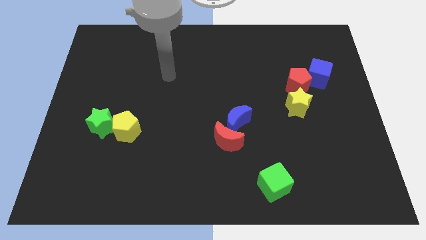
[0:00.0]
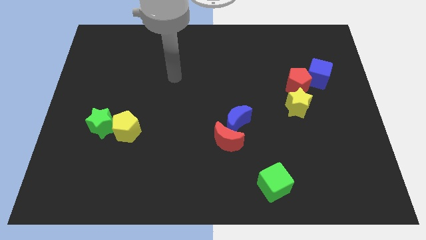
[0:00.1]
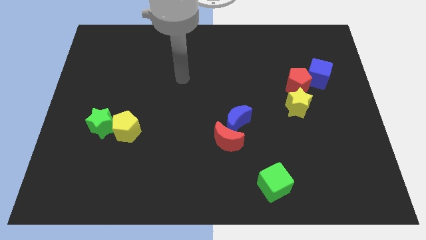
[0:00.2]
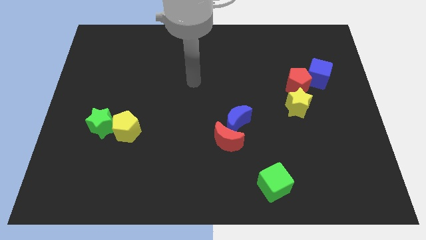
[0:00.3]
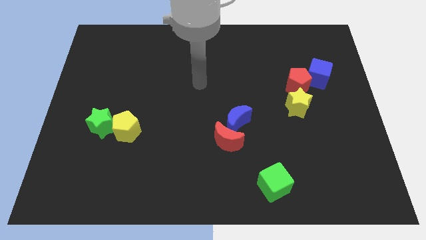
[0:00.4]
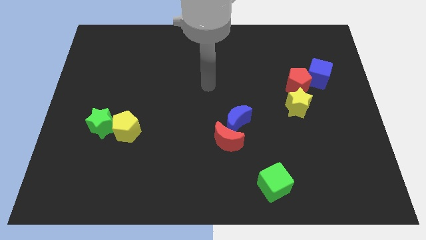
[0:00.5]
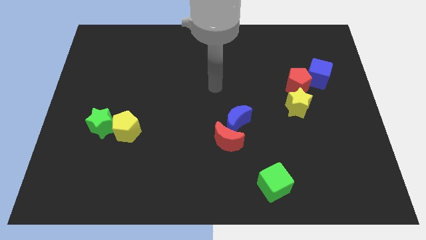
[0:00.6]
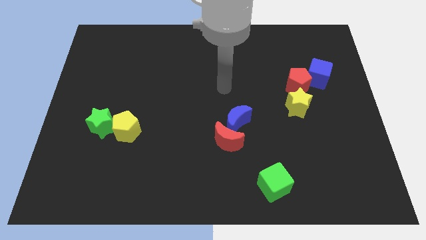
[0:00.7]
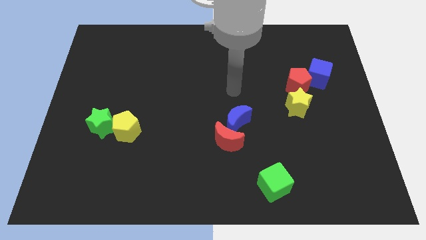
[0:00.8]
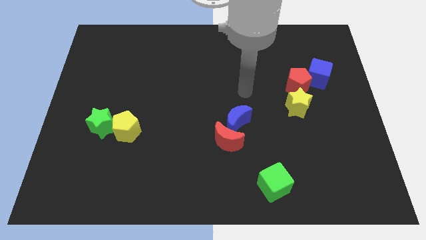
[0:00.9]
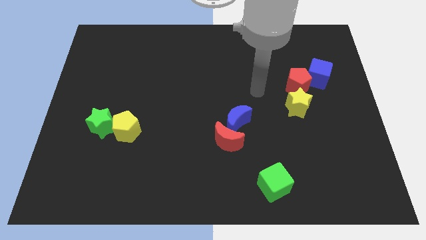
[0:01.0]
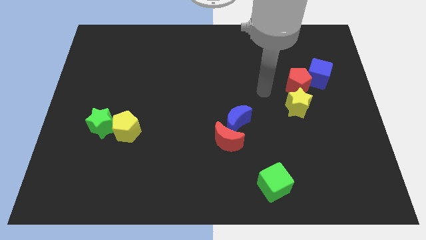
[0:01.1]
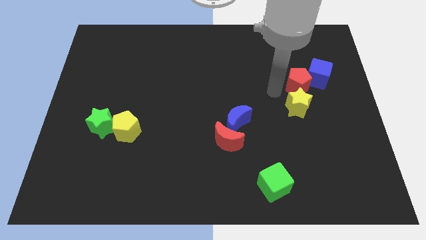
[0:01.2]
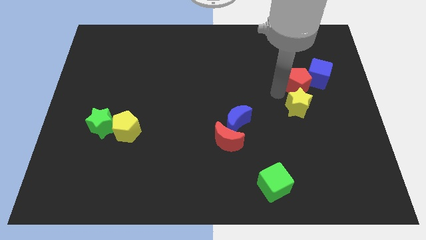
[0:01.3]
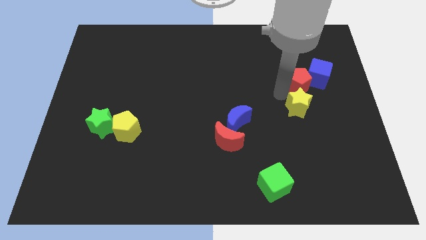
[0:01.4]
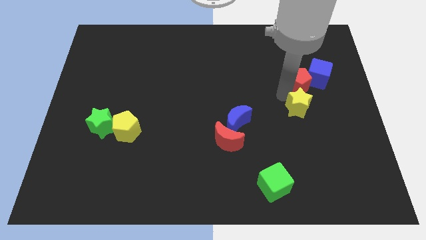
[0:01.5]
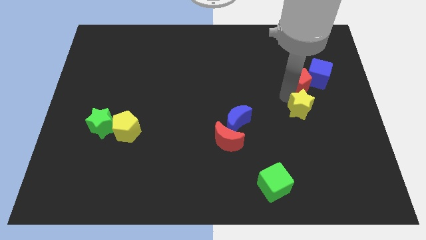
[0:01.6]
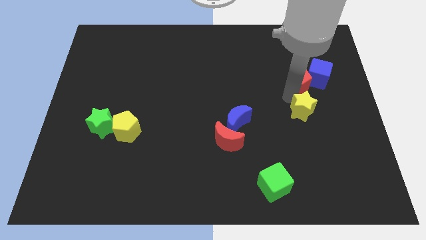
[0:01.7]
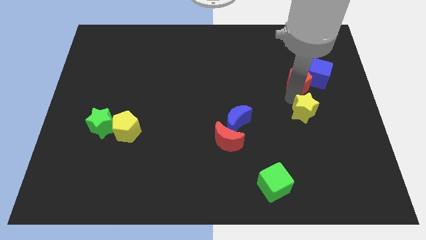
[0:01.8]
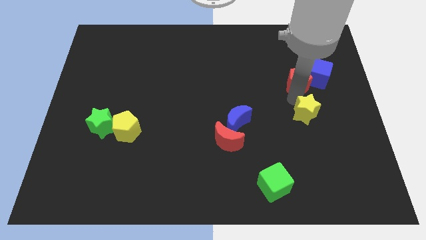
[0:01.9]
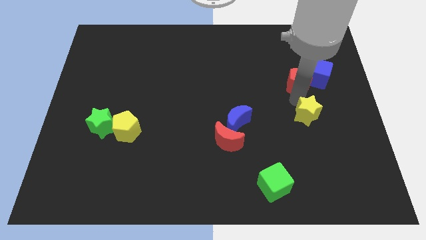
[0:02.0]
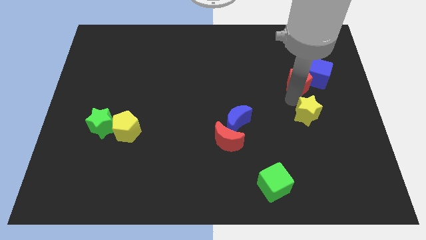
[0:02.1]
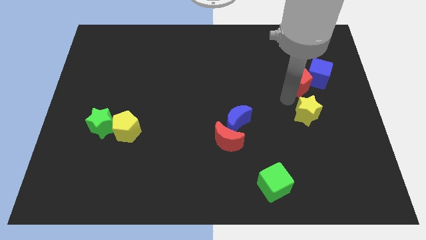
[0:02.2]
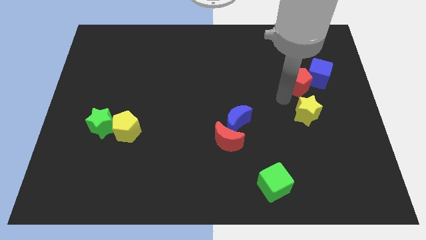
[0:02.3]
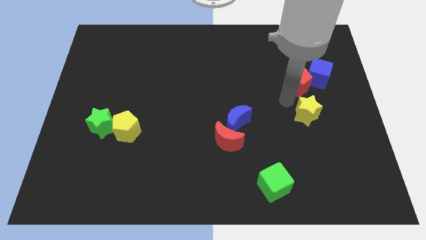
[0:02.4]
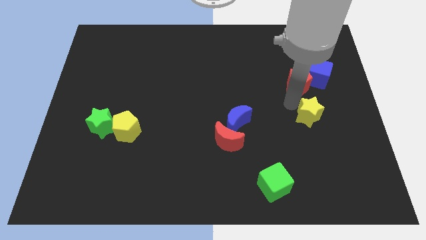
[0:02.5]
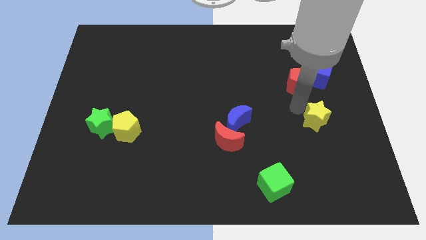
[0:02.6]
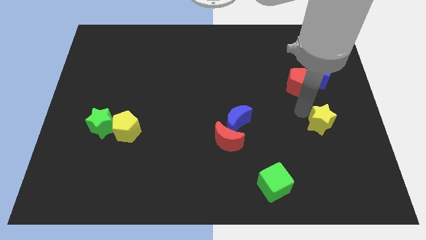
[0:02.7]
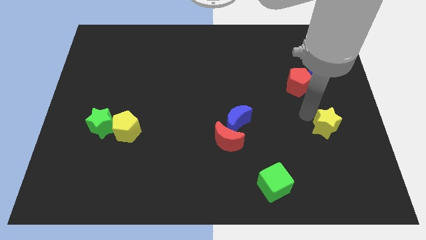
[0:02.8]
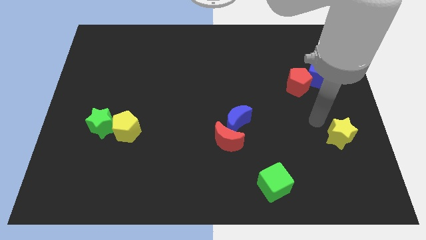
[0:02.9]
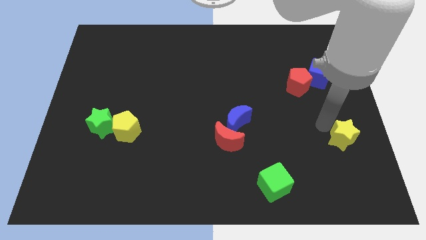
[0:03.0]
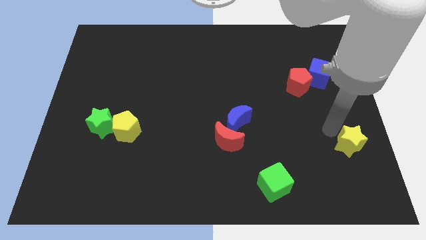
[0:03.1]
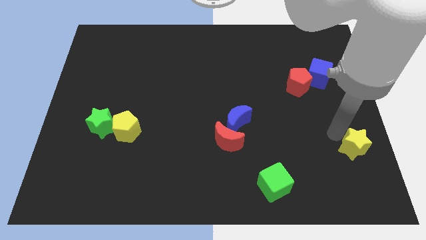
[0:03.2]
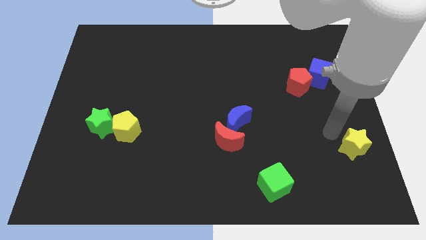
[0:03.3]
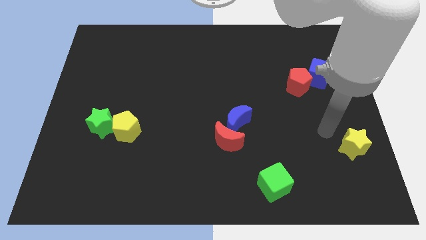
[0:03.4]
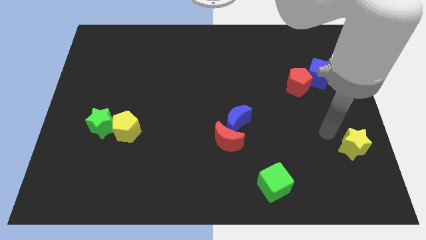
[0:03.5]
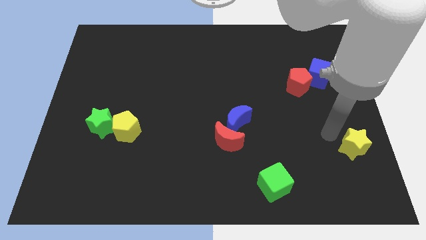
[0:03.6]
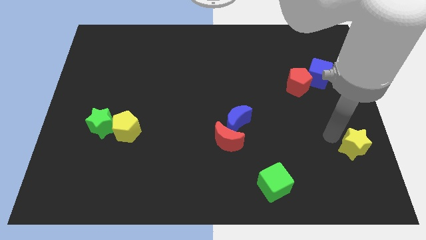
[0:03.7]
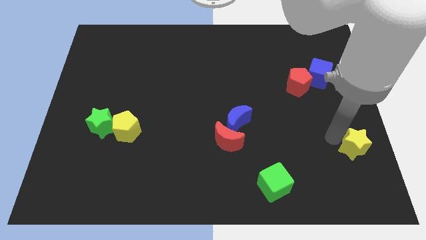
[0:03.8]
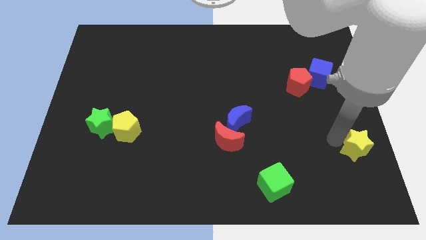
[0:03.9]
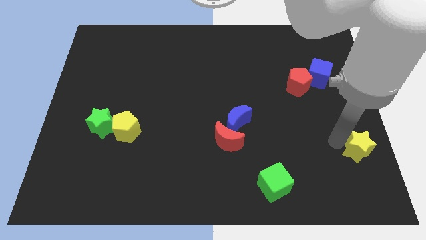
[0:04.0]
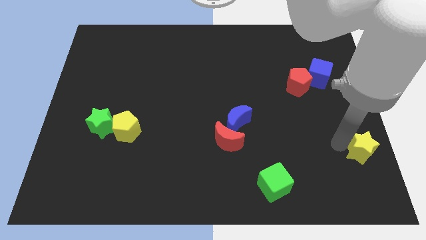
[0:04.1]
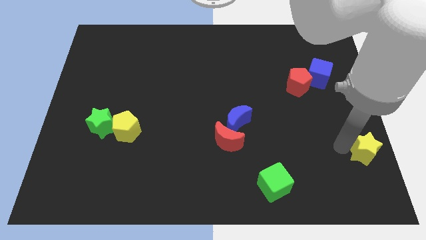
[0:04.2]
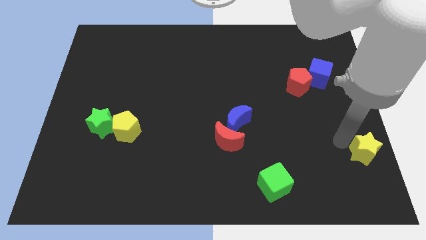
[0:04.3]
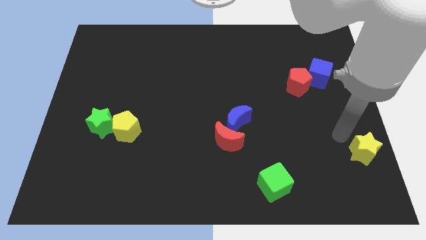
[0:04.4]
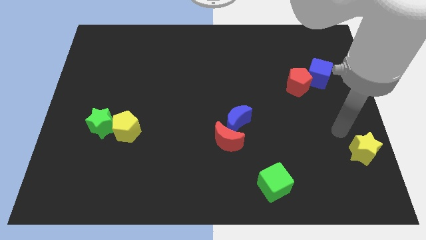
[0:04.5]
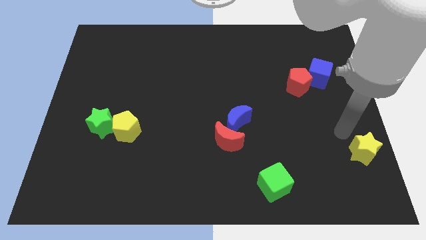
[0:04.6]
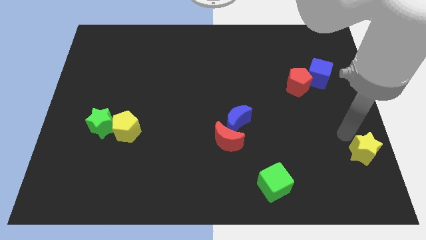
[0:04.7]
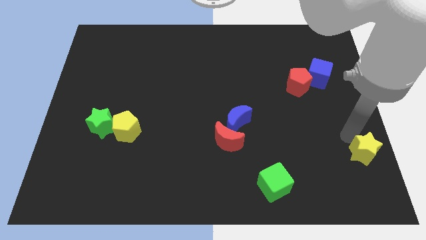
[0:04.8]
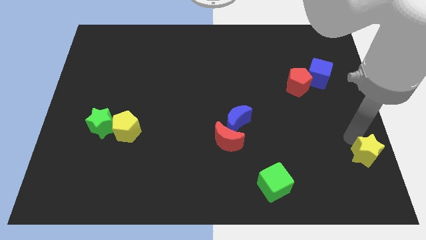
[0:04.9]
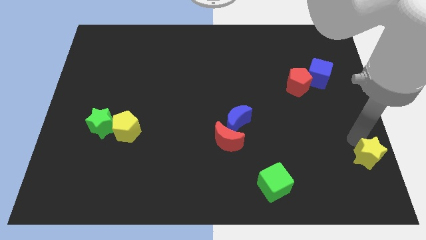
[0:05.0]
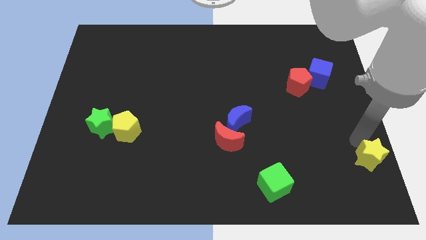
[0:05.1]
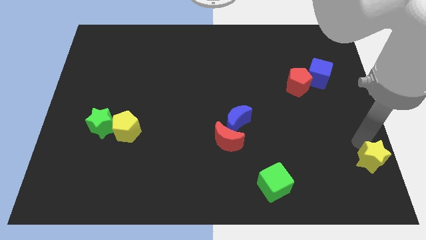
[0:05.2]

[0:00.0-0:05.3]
move the yellow star to the bottom right

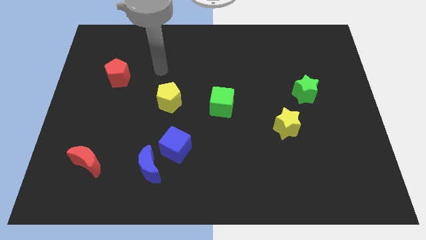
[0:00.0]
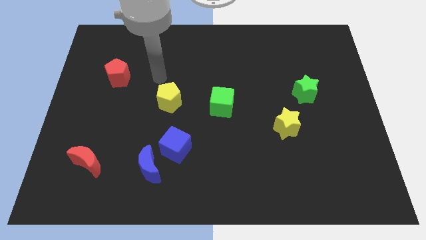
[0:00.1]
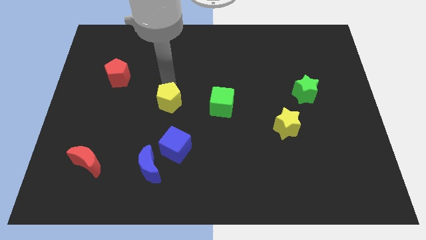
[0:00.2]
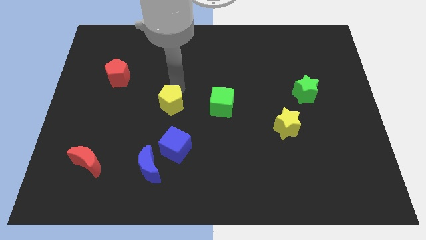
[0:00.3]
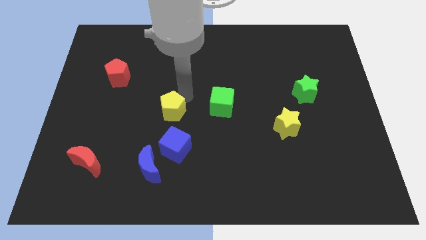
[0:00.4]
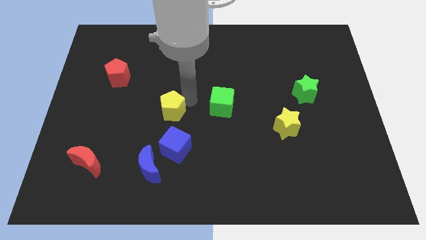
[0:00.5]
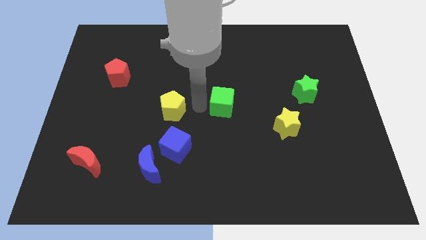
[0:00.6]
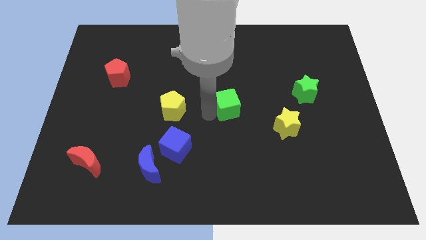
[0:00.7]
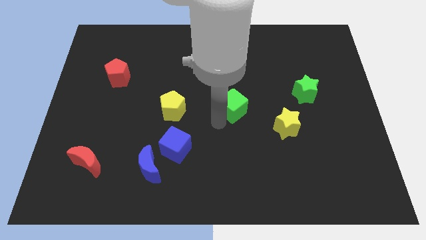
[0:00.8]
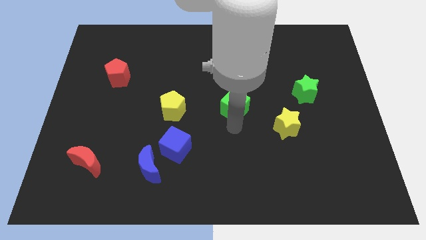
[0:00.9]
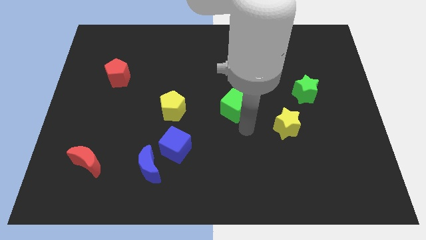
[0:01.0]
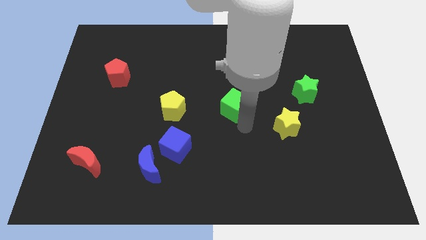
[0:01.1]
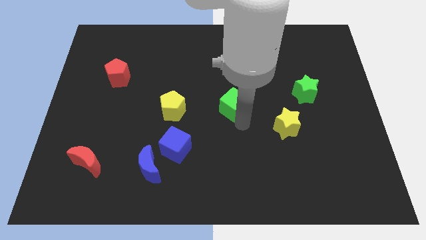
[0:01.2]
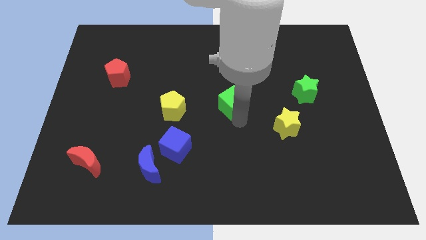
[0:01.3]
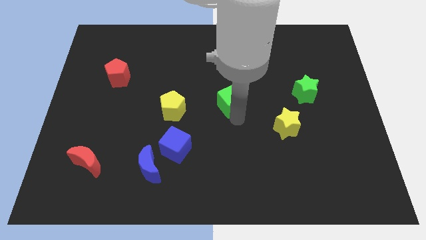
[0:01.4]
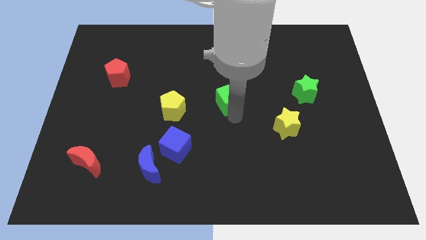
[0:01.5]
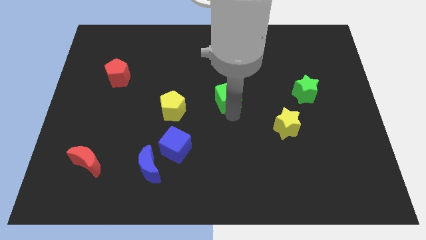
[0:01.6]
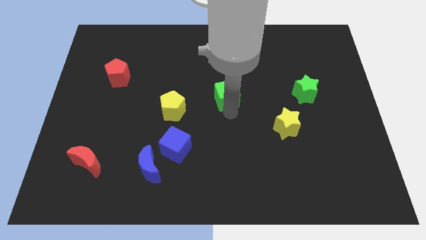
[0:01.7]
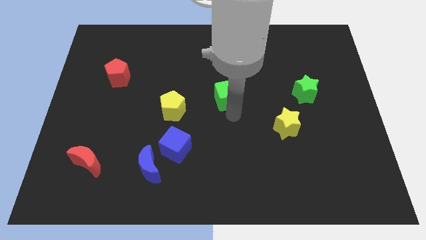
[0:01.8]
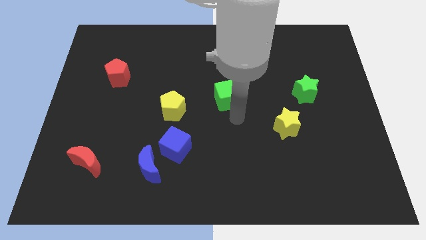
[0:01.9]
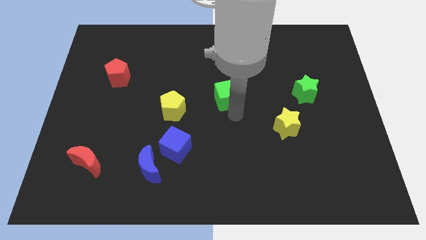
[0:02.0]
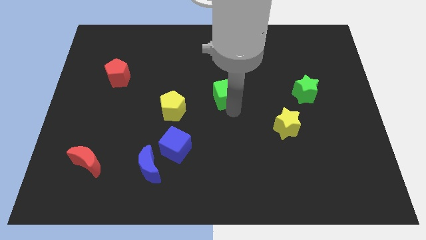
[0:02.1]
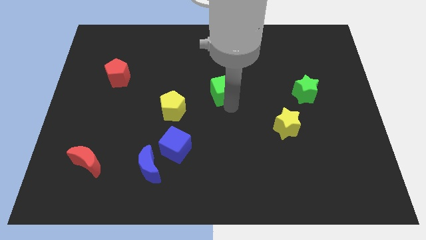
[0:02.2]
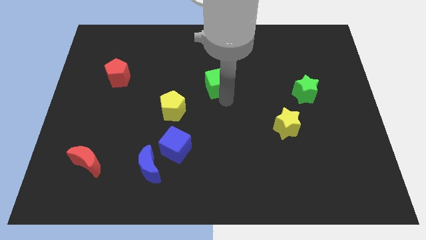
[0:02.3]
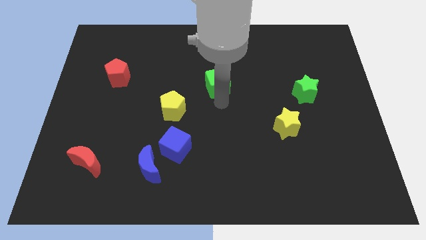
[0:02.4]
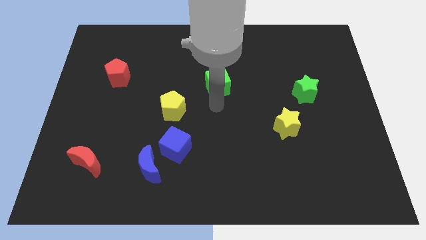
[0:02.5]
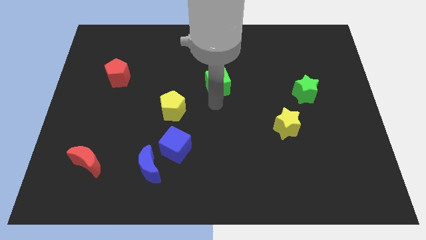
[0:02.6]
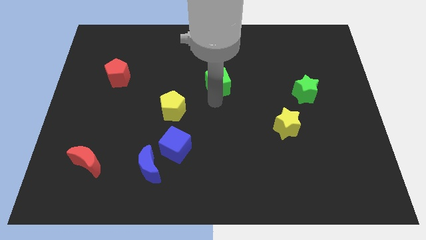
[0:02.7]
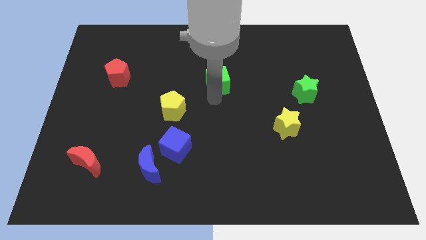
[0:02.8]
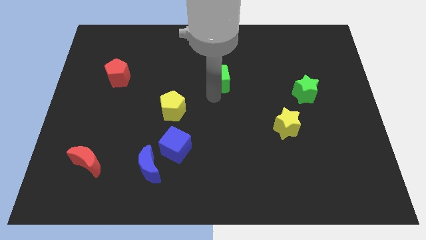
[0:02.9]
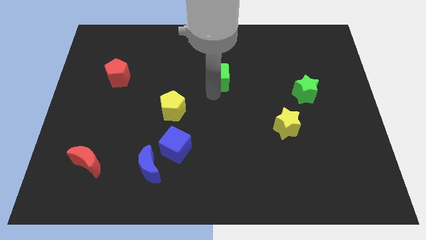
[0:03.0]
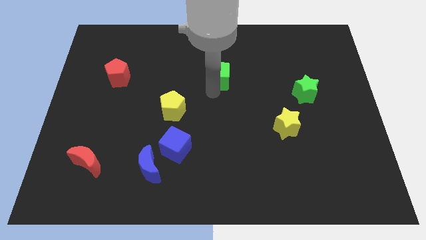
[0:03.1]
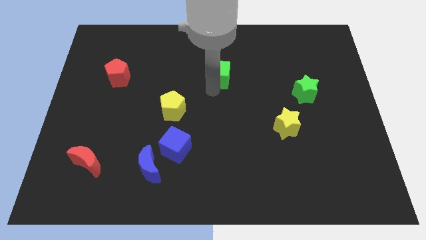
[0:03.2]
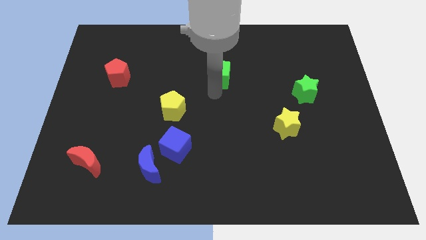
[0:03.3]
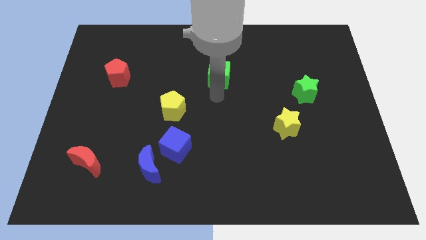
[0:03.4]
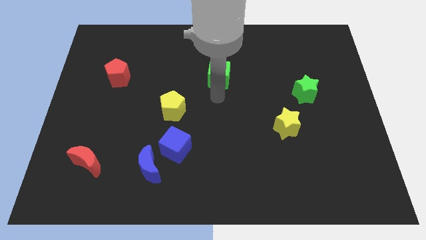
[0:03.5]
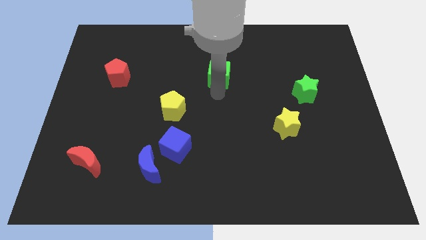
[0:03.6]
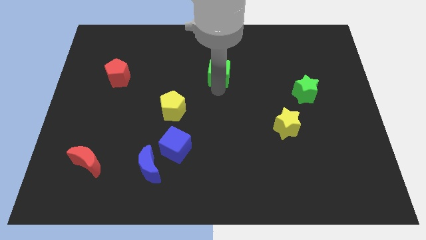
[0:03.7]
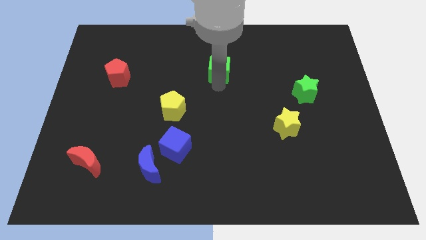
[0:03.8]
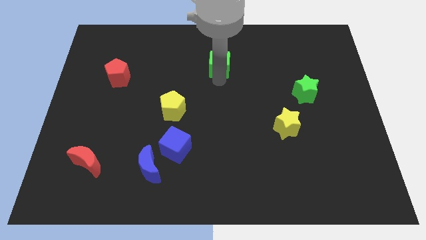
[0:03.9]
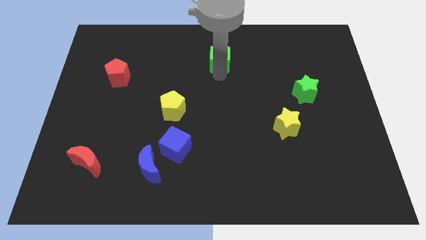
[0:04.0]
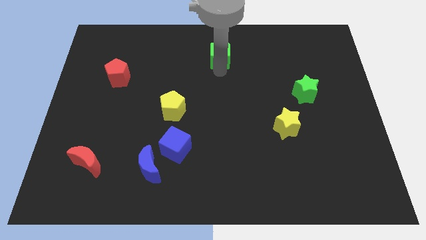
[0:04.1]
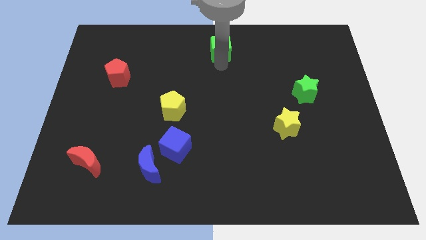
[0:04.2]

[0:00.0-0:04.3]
slide the green cube to the towards your base
